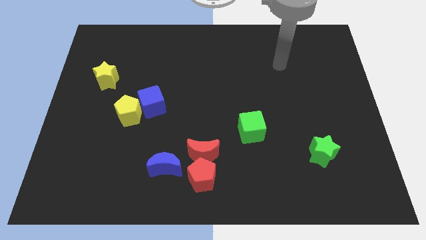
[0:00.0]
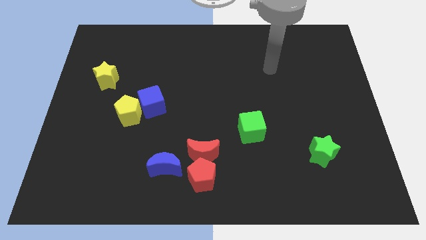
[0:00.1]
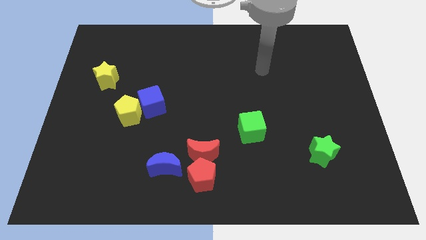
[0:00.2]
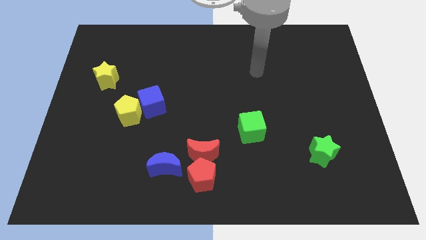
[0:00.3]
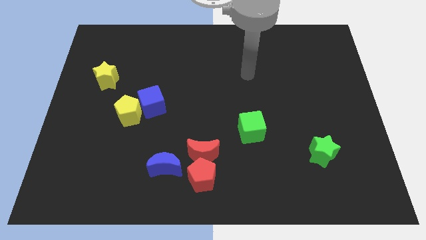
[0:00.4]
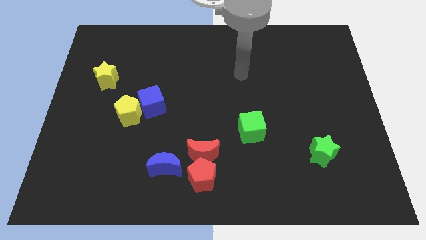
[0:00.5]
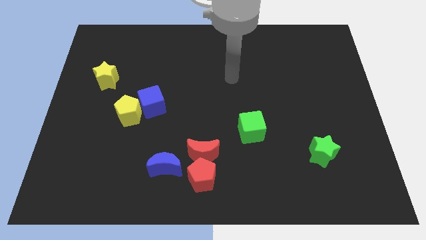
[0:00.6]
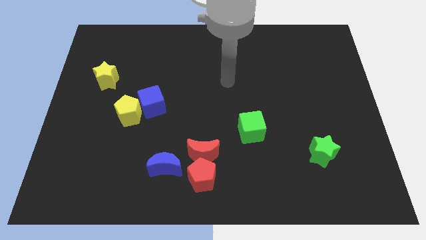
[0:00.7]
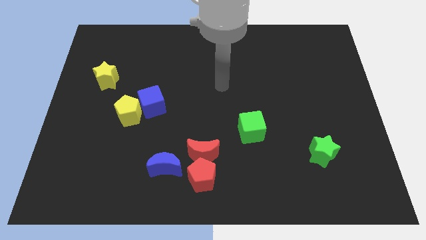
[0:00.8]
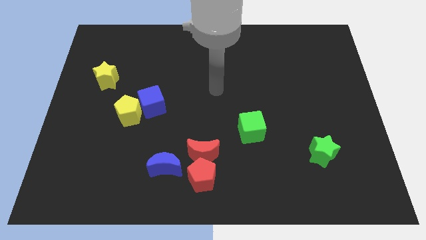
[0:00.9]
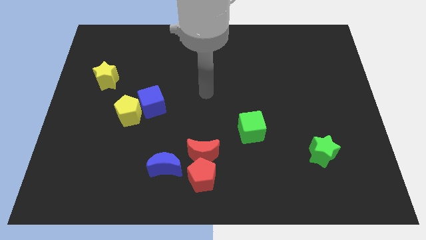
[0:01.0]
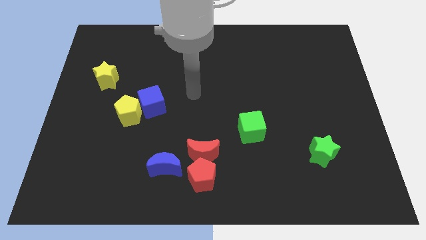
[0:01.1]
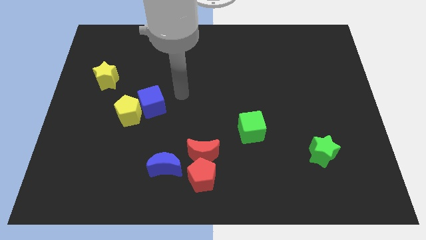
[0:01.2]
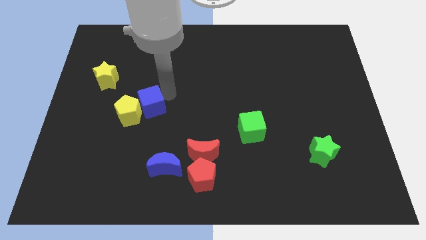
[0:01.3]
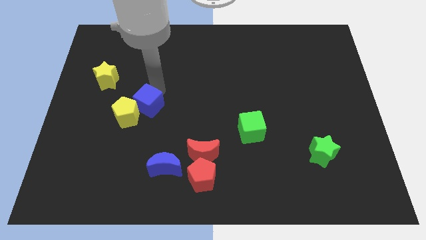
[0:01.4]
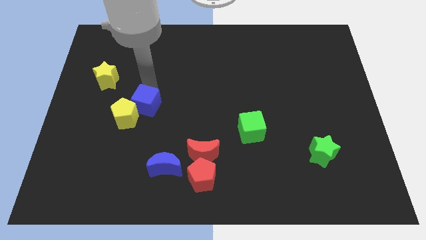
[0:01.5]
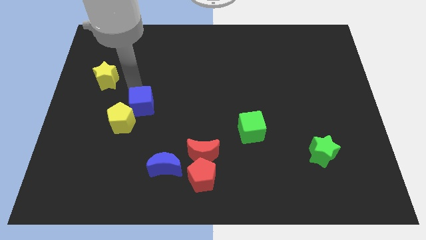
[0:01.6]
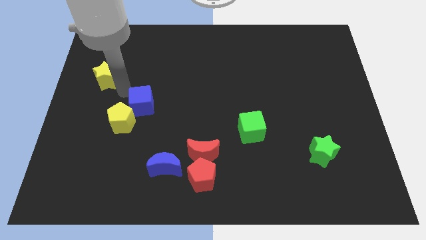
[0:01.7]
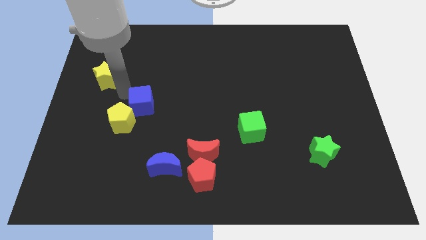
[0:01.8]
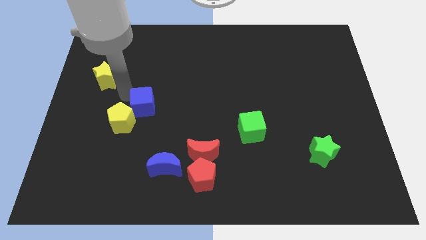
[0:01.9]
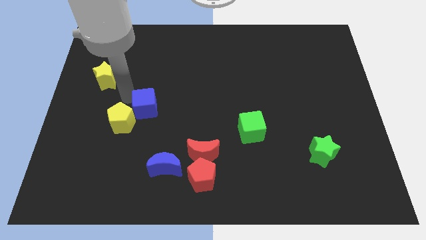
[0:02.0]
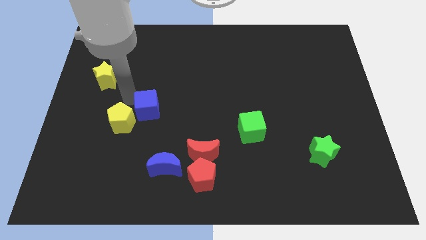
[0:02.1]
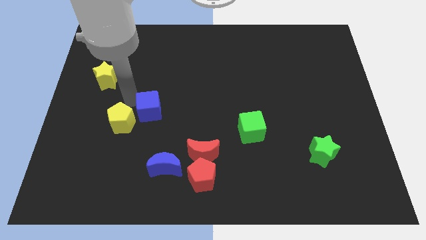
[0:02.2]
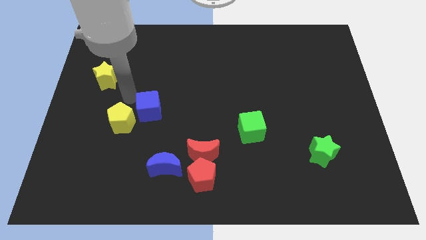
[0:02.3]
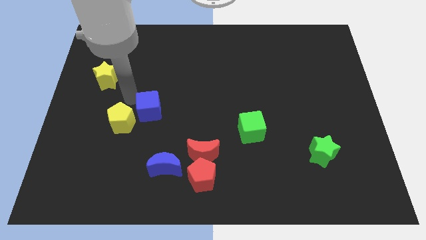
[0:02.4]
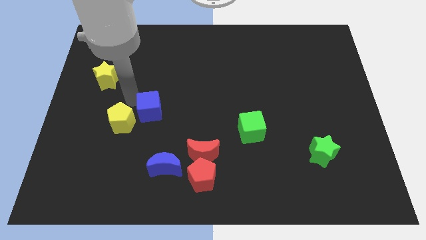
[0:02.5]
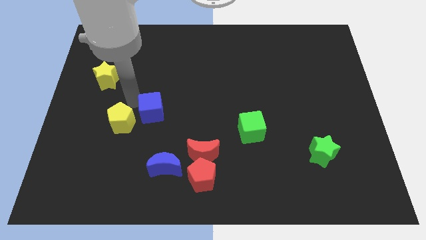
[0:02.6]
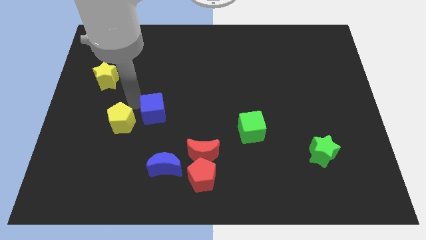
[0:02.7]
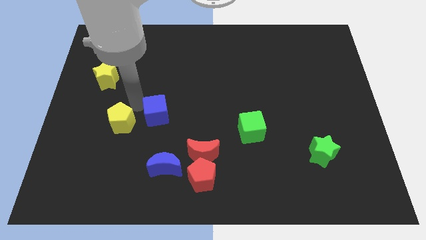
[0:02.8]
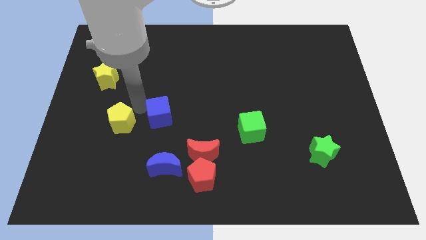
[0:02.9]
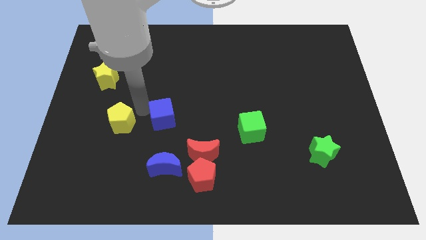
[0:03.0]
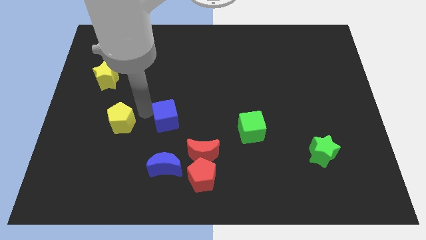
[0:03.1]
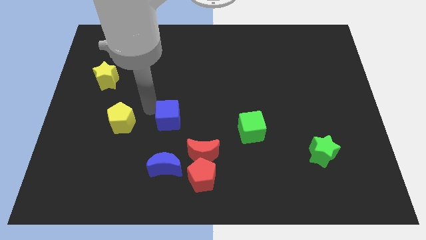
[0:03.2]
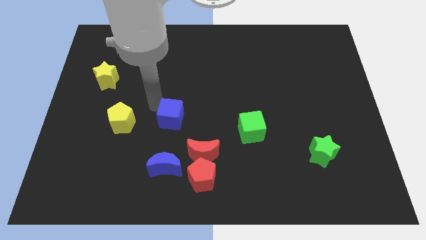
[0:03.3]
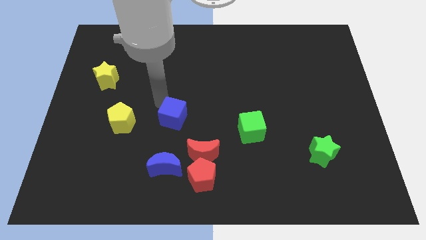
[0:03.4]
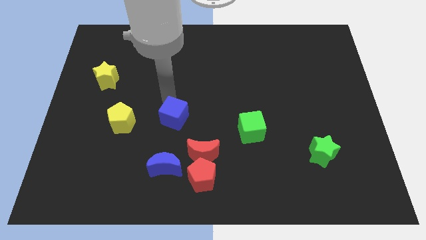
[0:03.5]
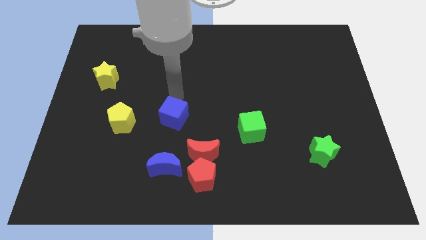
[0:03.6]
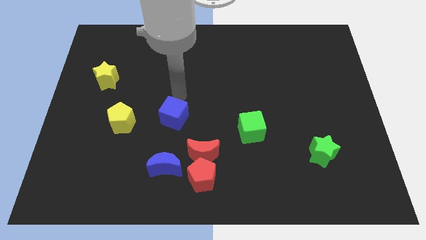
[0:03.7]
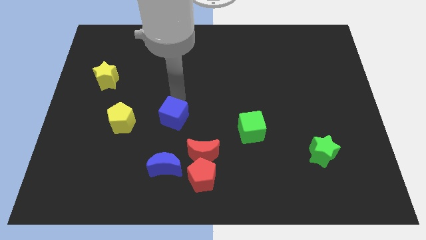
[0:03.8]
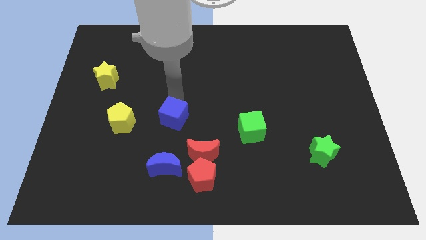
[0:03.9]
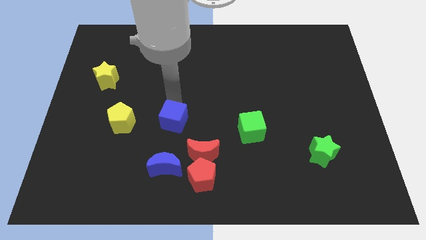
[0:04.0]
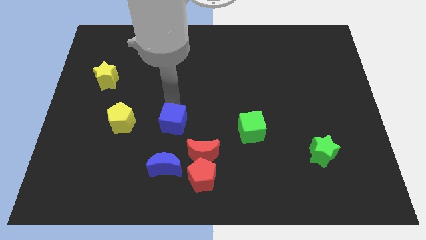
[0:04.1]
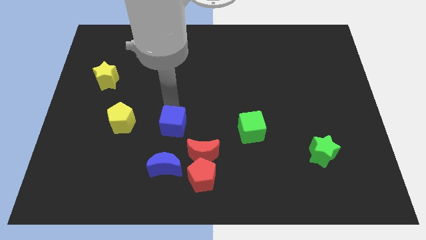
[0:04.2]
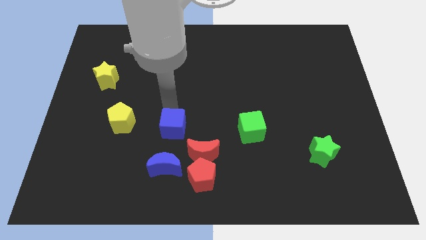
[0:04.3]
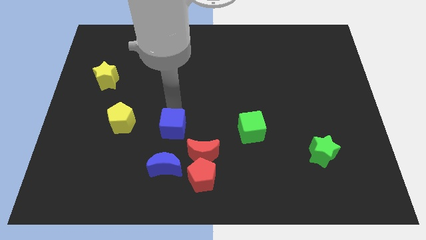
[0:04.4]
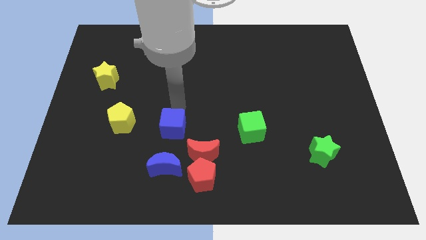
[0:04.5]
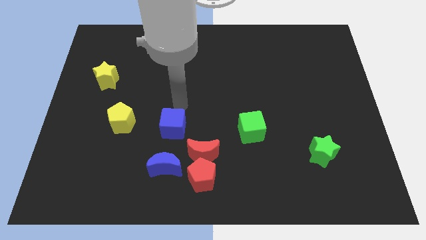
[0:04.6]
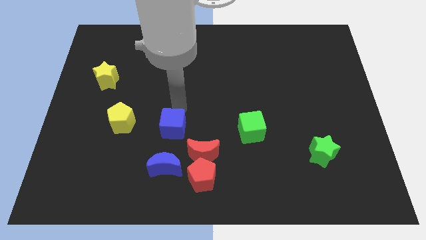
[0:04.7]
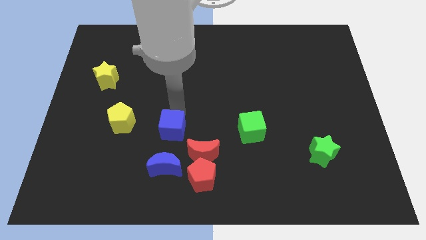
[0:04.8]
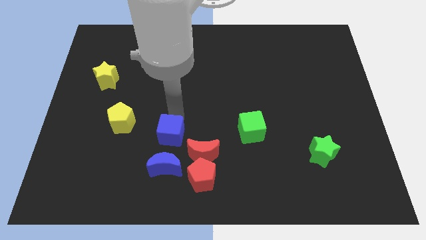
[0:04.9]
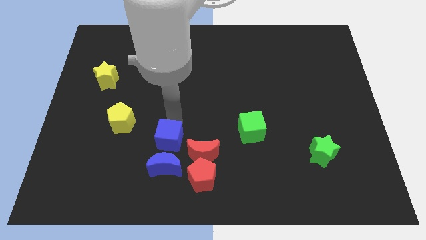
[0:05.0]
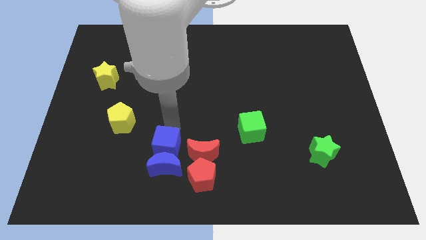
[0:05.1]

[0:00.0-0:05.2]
put the blue cube next to the blue moon

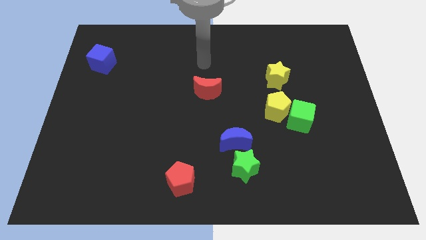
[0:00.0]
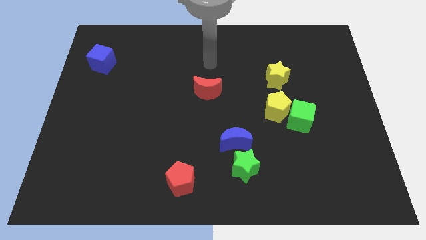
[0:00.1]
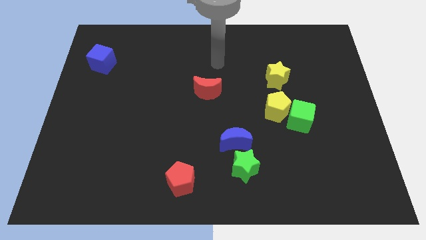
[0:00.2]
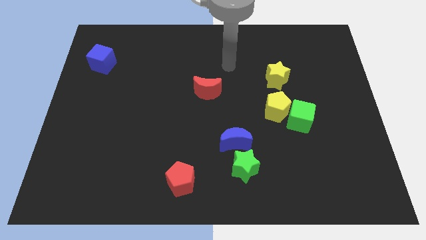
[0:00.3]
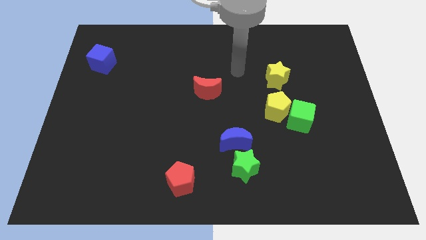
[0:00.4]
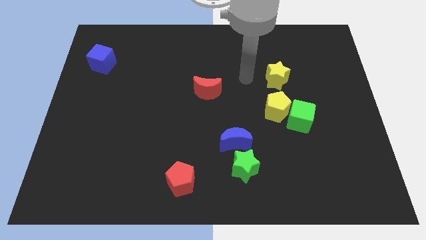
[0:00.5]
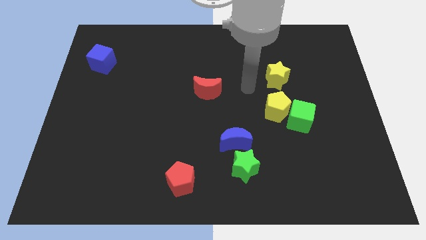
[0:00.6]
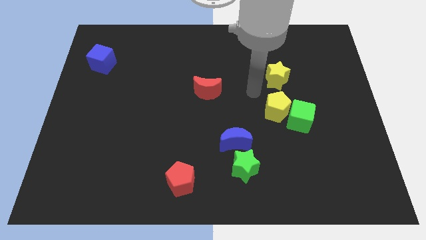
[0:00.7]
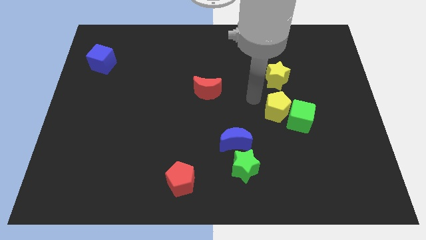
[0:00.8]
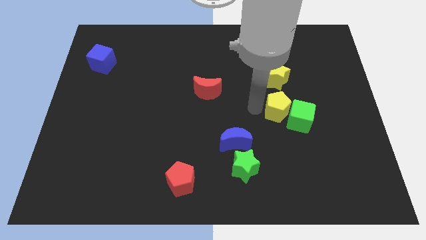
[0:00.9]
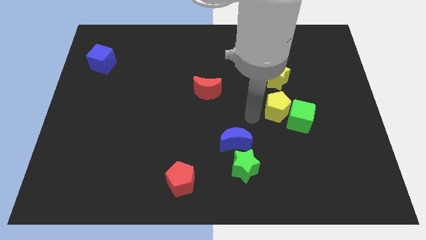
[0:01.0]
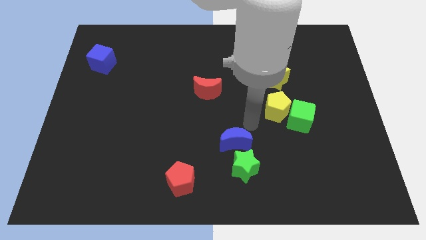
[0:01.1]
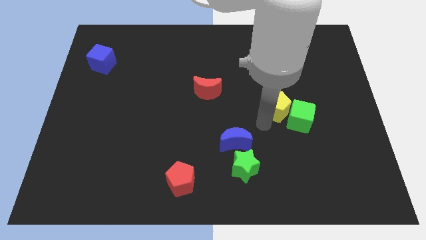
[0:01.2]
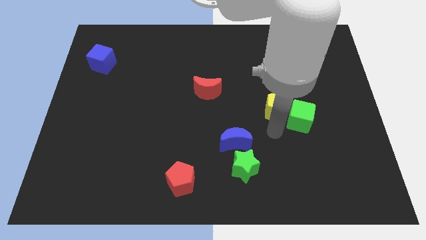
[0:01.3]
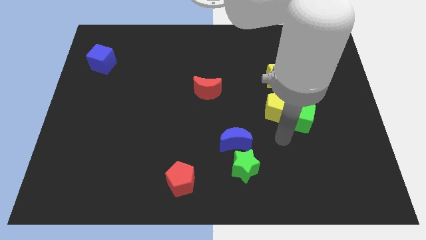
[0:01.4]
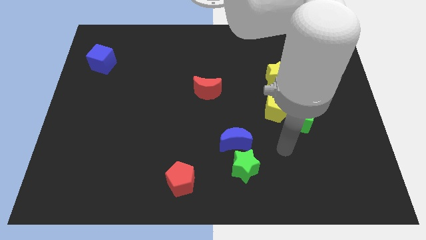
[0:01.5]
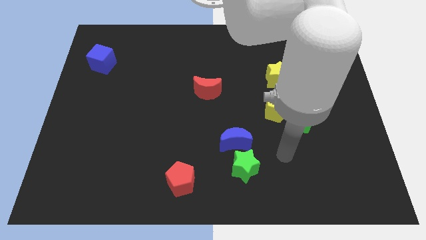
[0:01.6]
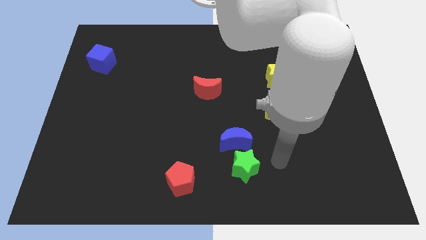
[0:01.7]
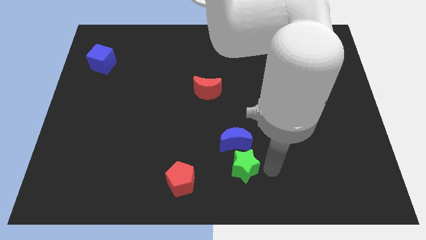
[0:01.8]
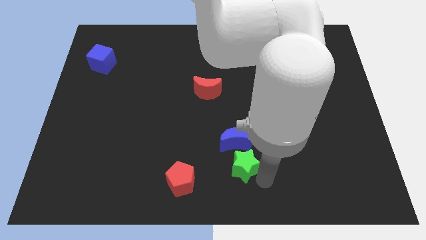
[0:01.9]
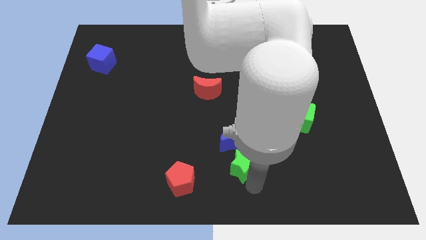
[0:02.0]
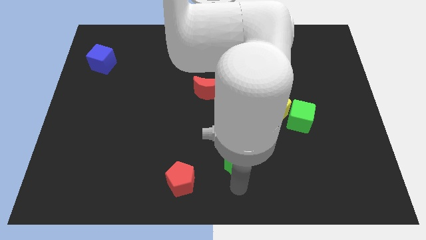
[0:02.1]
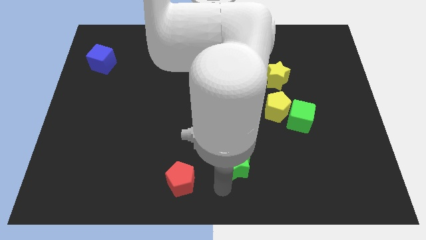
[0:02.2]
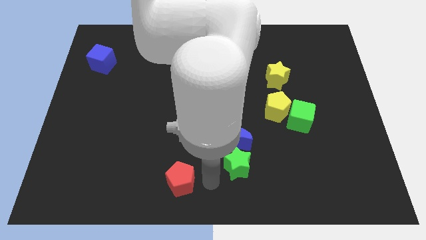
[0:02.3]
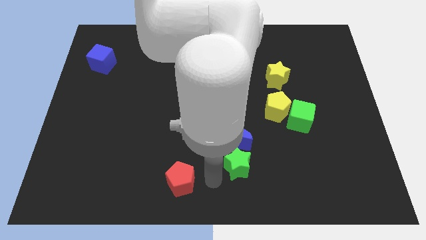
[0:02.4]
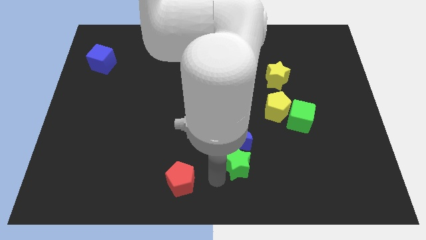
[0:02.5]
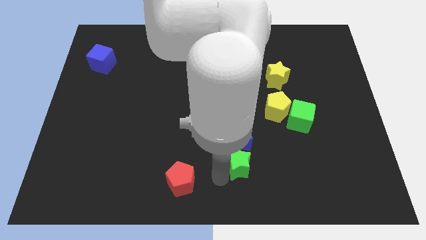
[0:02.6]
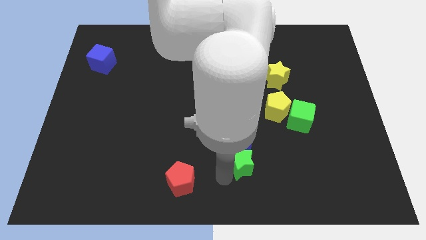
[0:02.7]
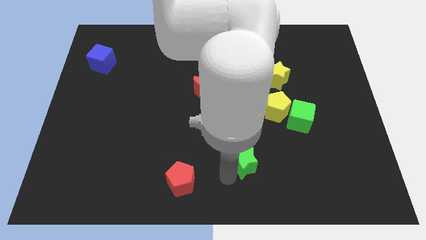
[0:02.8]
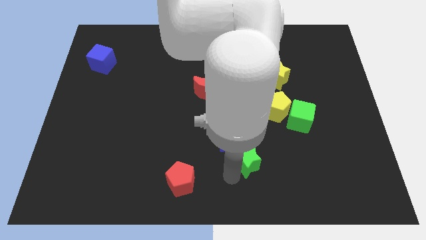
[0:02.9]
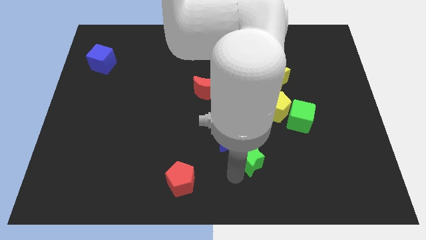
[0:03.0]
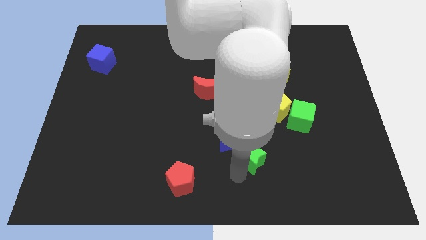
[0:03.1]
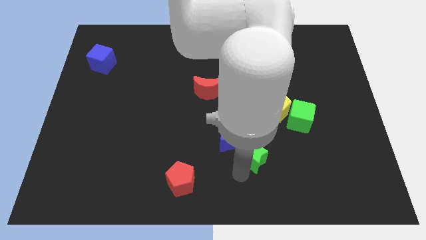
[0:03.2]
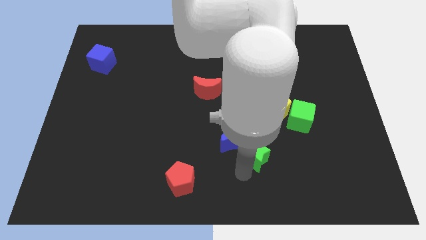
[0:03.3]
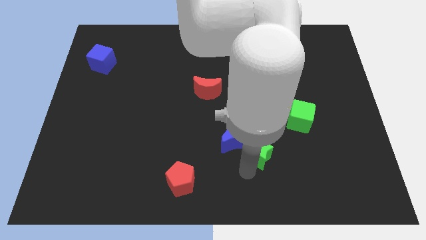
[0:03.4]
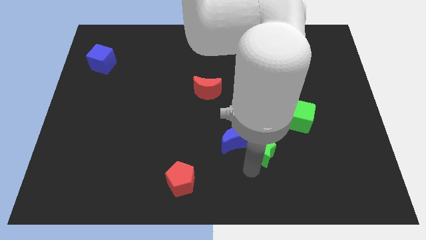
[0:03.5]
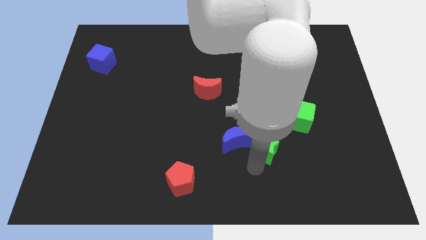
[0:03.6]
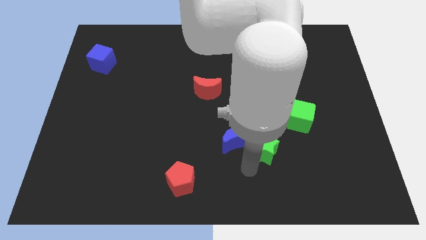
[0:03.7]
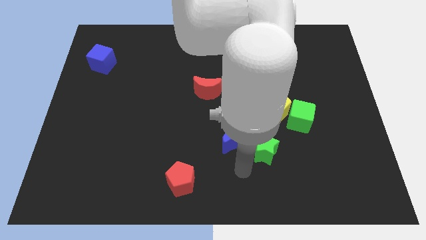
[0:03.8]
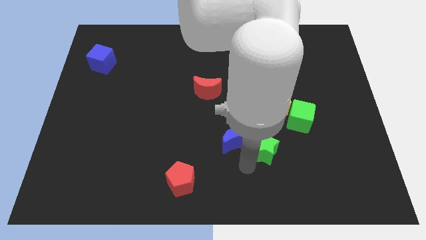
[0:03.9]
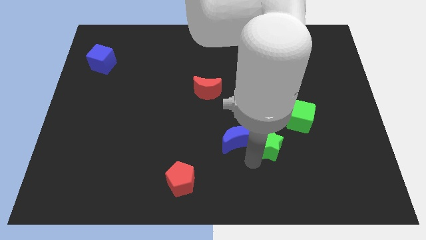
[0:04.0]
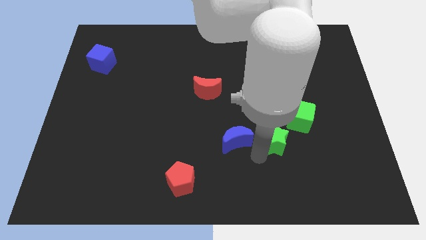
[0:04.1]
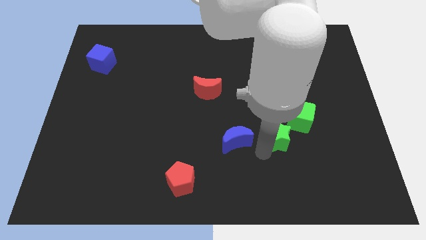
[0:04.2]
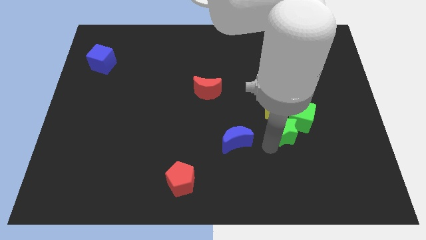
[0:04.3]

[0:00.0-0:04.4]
push the green star to the green cube
